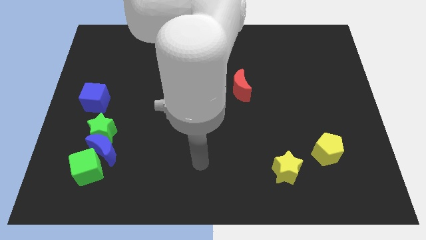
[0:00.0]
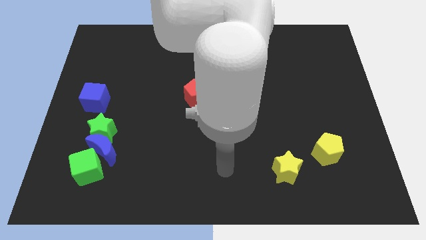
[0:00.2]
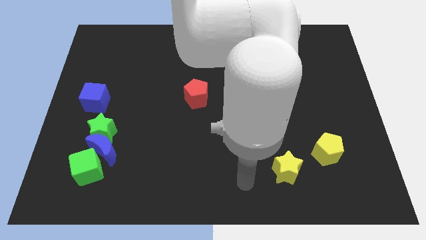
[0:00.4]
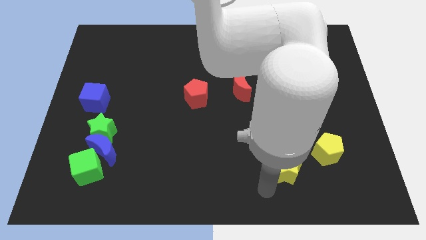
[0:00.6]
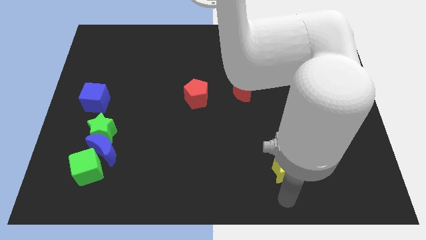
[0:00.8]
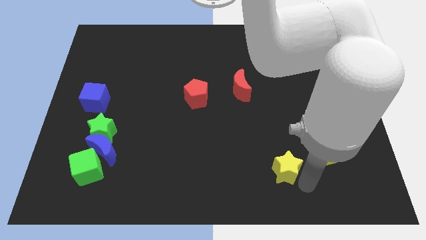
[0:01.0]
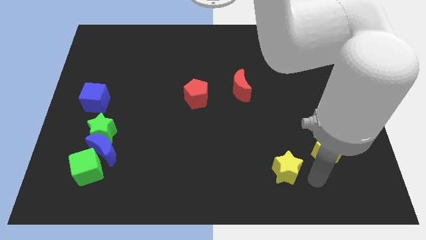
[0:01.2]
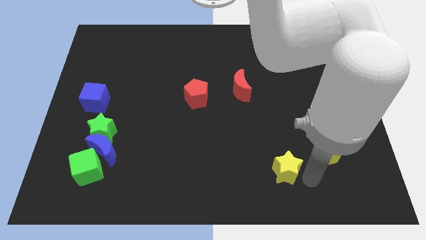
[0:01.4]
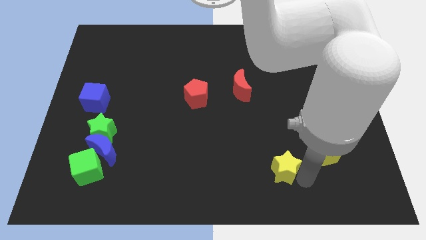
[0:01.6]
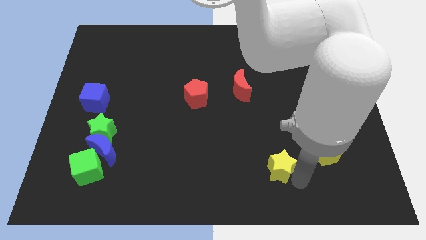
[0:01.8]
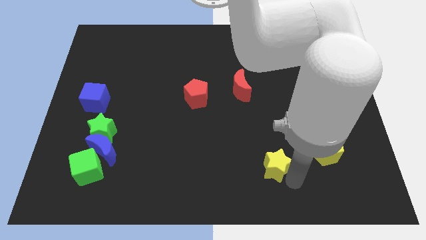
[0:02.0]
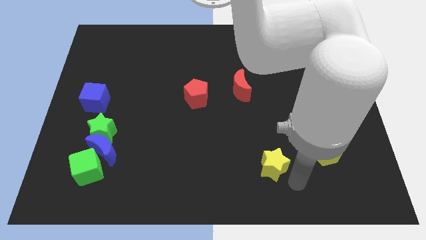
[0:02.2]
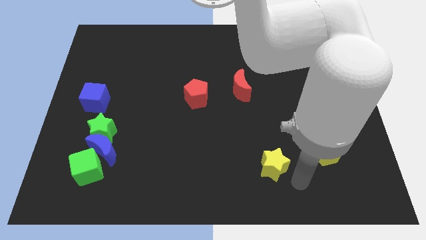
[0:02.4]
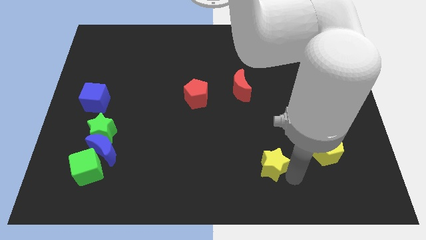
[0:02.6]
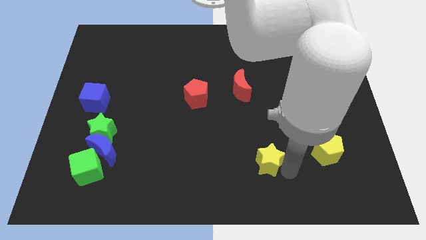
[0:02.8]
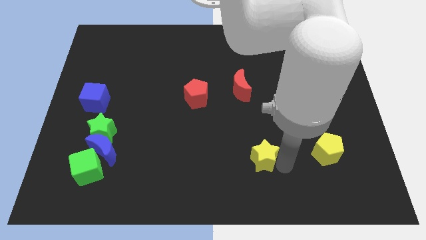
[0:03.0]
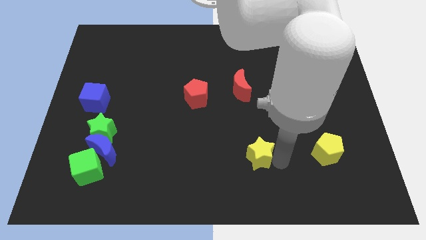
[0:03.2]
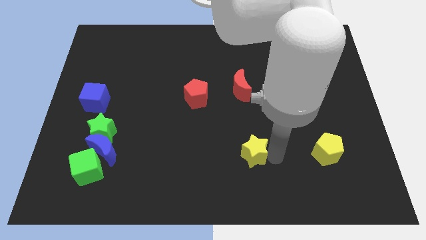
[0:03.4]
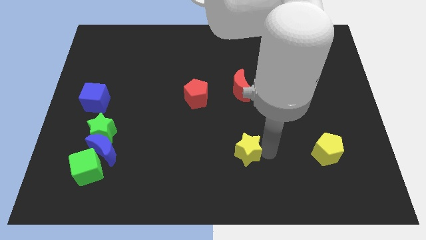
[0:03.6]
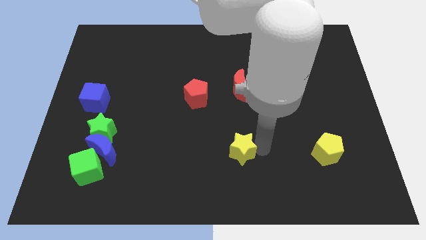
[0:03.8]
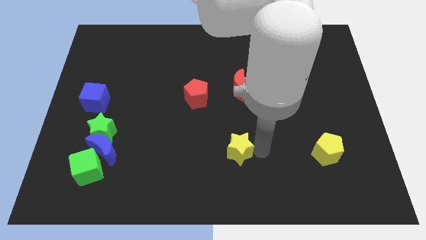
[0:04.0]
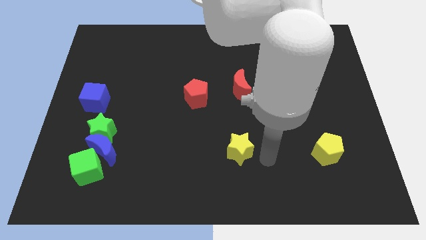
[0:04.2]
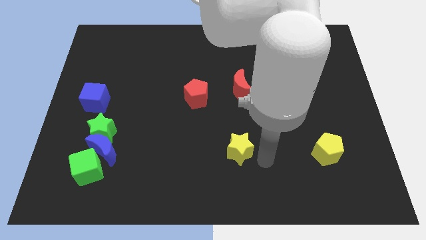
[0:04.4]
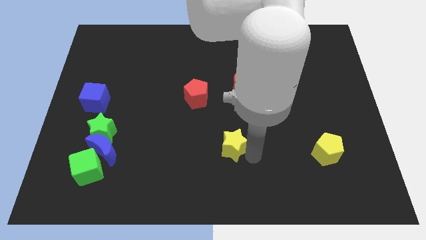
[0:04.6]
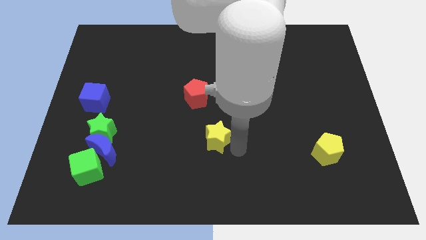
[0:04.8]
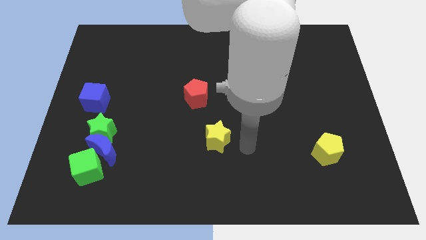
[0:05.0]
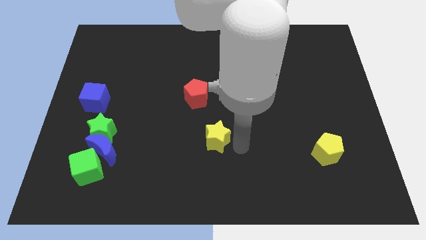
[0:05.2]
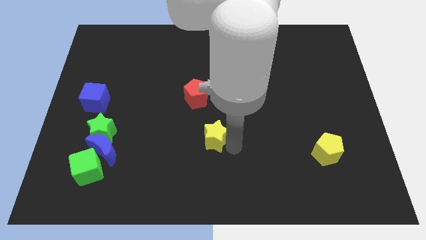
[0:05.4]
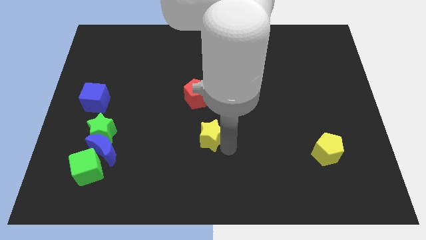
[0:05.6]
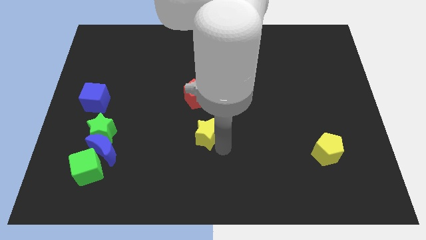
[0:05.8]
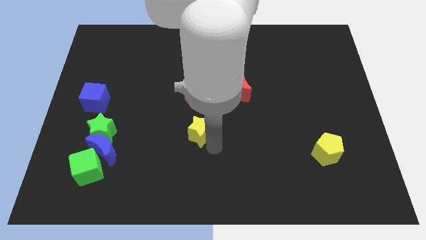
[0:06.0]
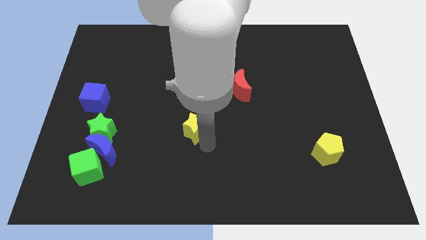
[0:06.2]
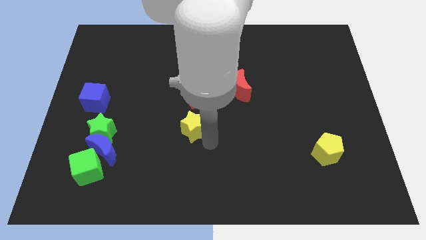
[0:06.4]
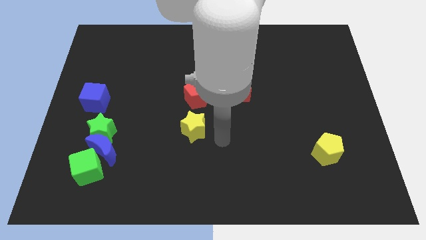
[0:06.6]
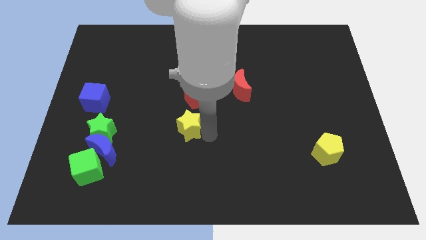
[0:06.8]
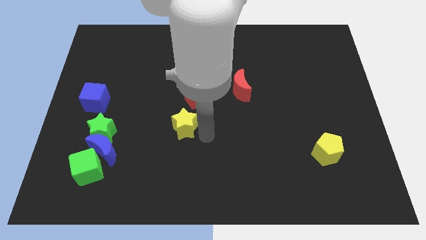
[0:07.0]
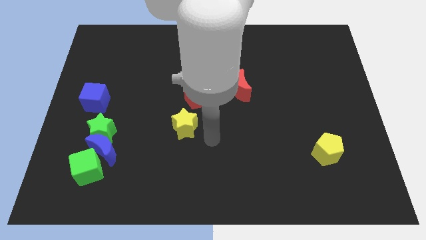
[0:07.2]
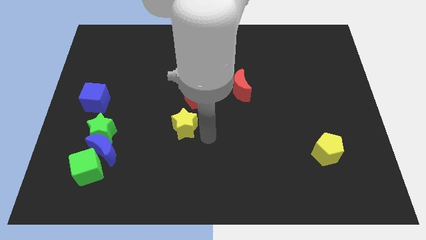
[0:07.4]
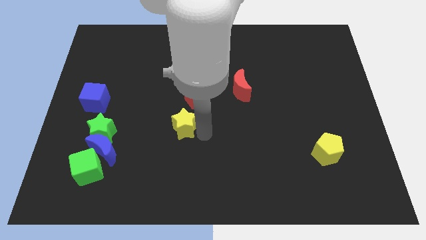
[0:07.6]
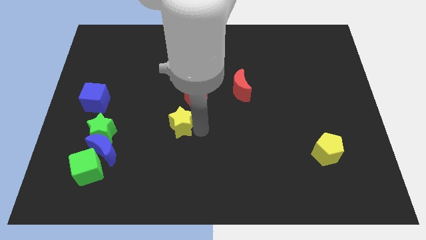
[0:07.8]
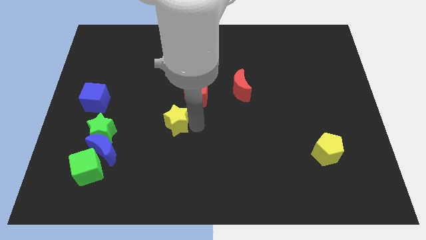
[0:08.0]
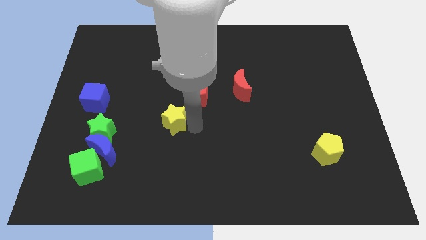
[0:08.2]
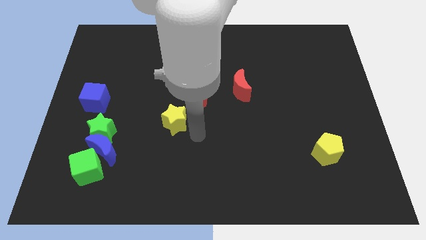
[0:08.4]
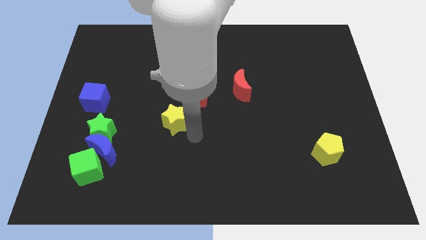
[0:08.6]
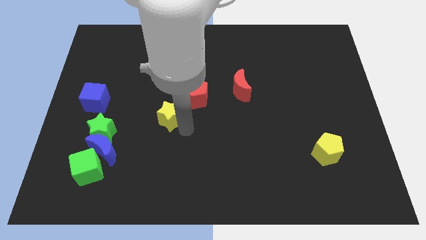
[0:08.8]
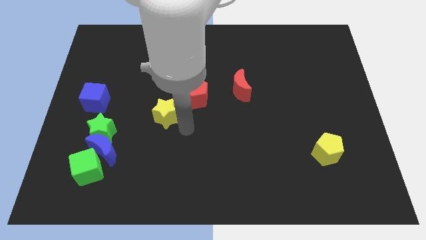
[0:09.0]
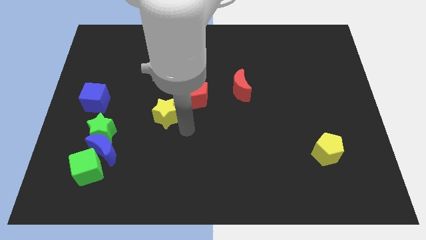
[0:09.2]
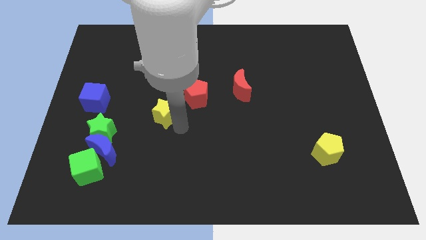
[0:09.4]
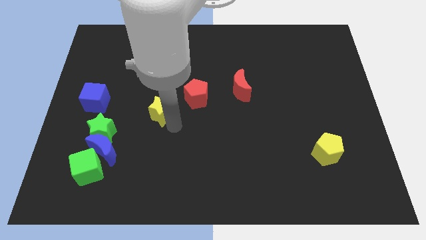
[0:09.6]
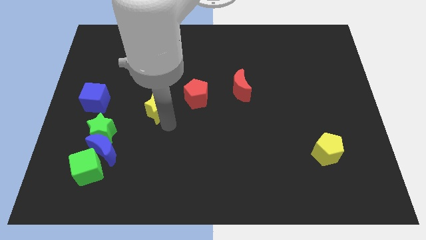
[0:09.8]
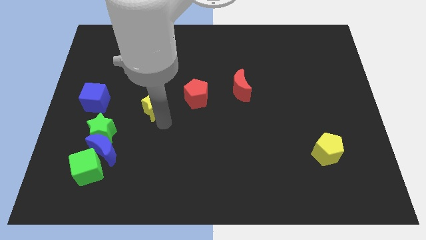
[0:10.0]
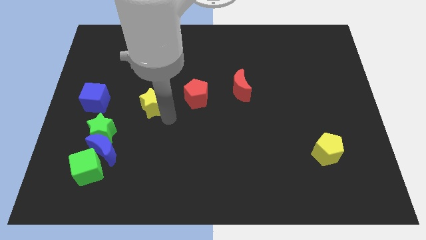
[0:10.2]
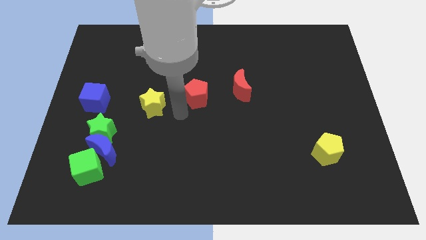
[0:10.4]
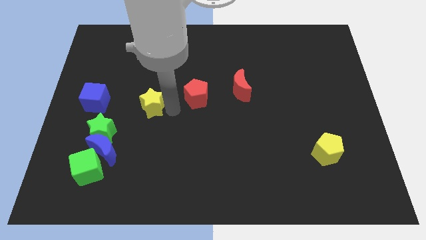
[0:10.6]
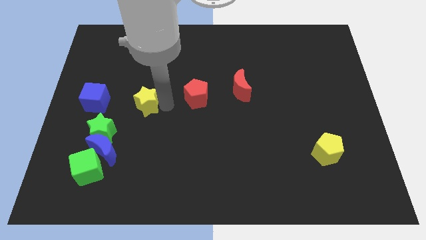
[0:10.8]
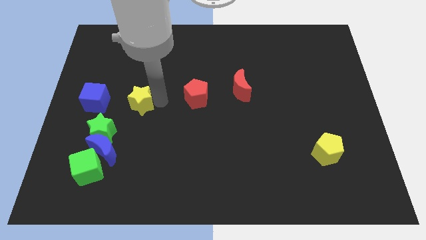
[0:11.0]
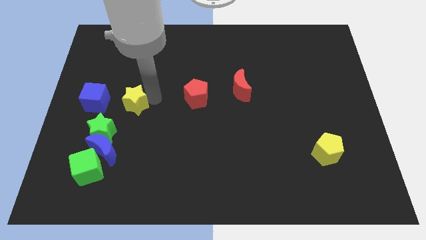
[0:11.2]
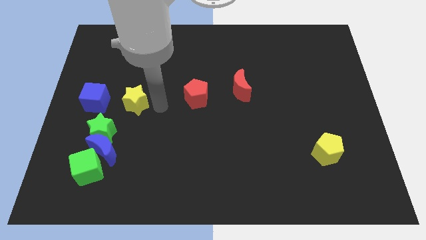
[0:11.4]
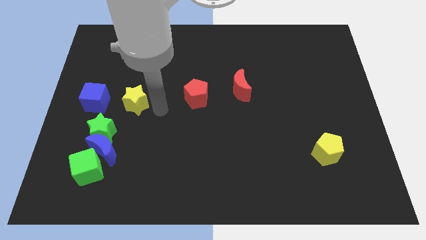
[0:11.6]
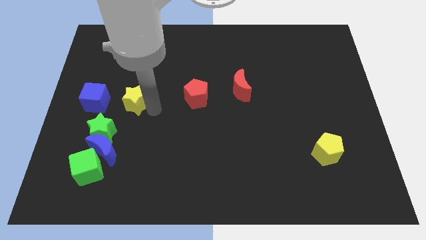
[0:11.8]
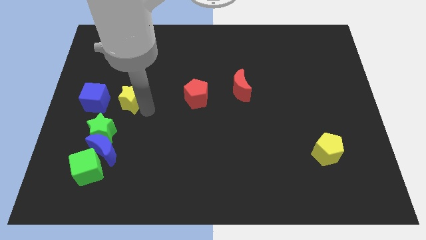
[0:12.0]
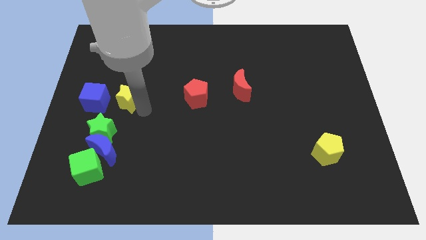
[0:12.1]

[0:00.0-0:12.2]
put the yellow star above the green star

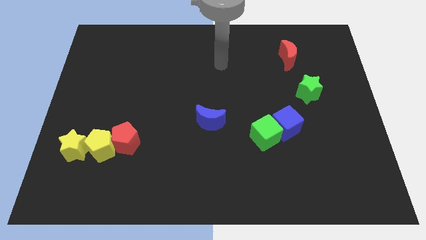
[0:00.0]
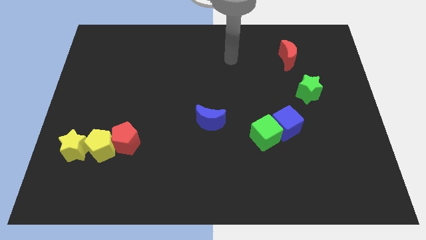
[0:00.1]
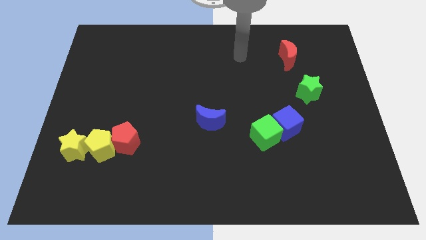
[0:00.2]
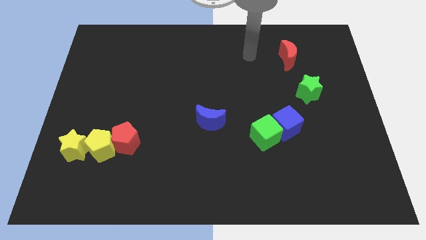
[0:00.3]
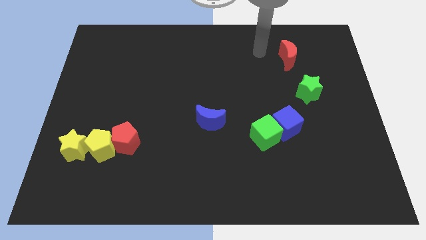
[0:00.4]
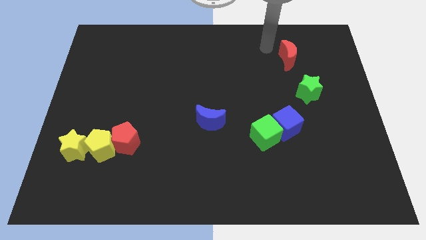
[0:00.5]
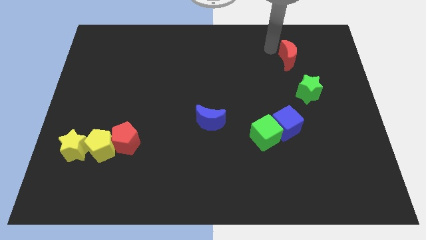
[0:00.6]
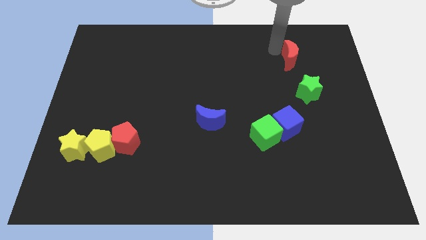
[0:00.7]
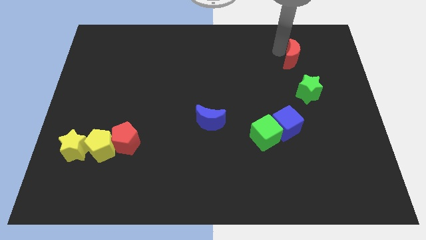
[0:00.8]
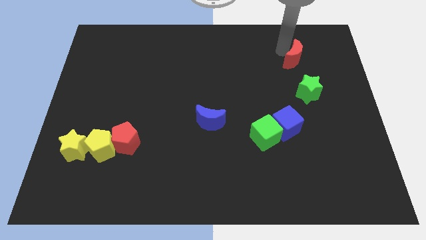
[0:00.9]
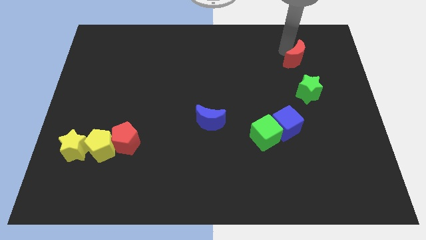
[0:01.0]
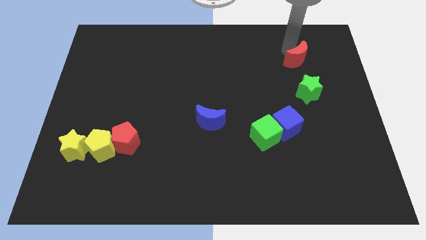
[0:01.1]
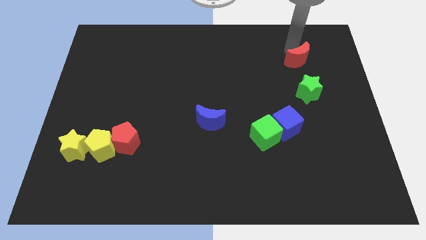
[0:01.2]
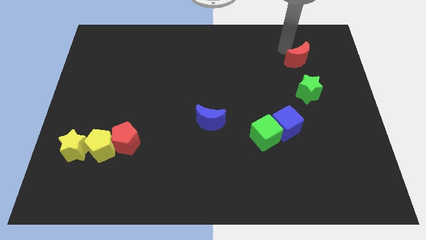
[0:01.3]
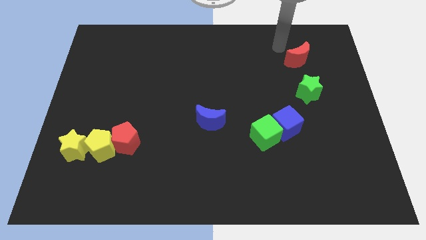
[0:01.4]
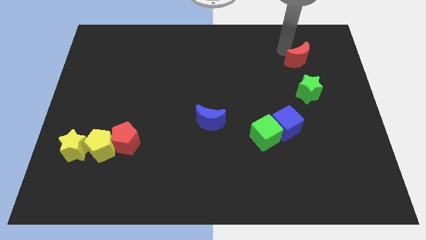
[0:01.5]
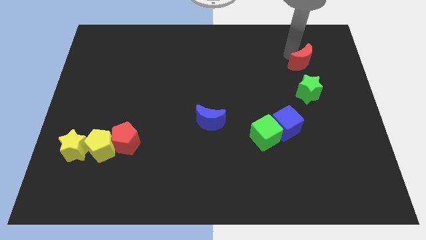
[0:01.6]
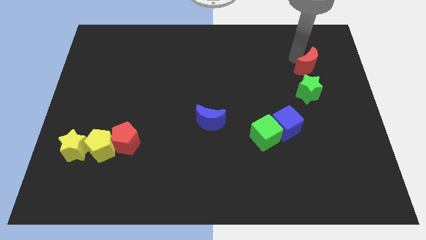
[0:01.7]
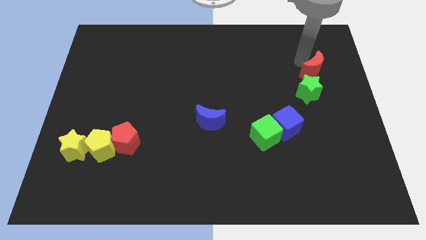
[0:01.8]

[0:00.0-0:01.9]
push the red moon diagonally up and to the right of the green star

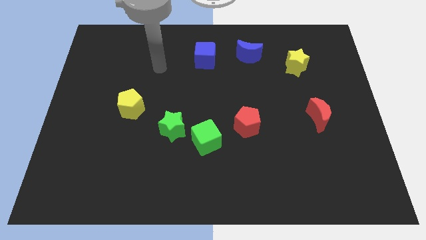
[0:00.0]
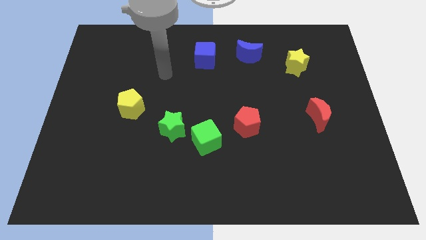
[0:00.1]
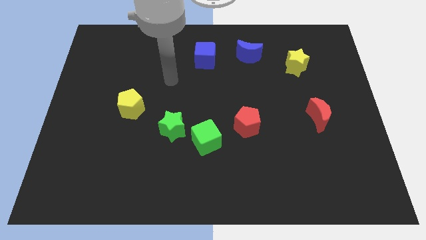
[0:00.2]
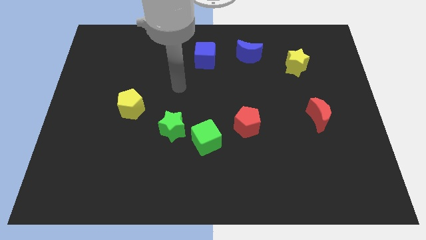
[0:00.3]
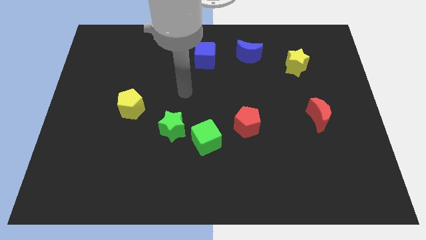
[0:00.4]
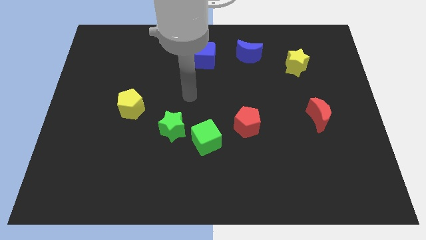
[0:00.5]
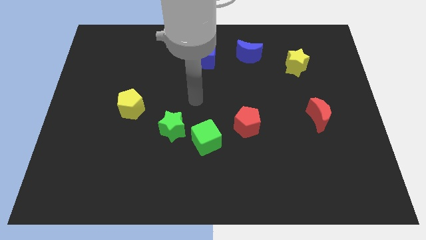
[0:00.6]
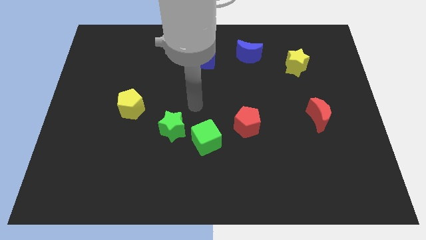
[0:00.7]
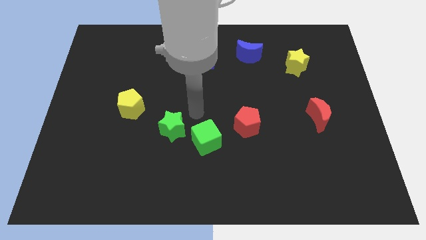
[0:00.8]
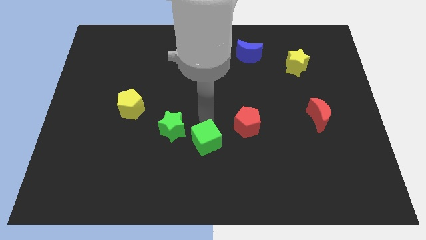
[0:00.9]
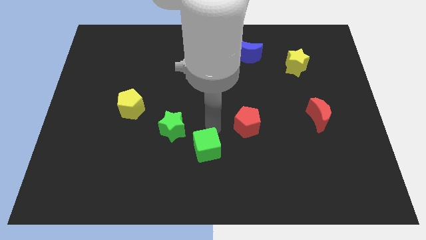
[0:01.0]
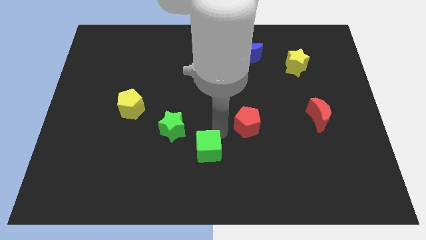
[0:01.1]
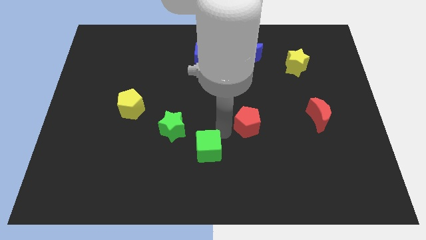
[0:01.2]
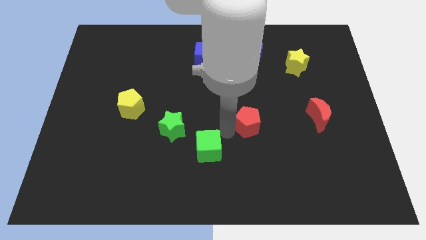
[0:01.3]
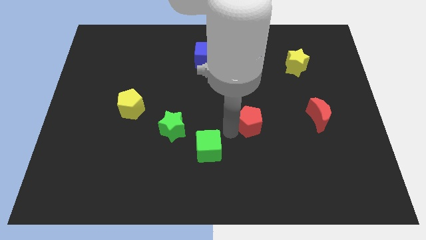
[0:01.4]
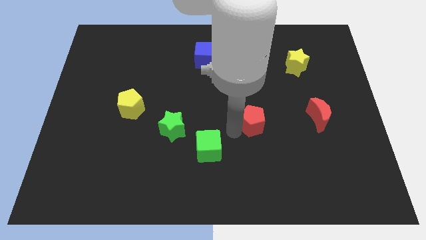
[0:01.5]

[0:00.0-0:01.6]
put the red pentagon to the left side of the red moon
